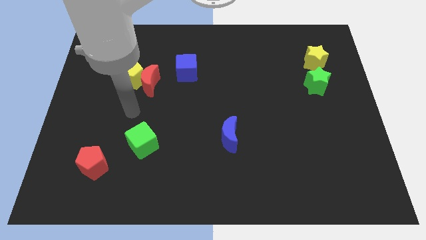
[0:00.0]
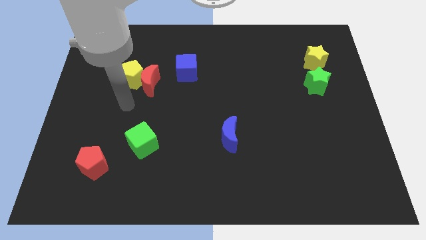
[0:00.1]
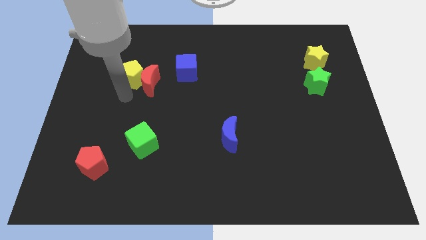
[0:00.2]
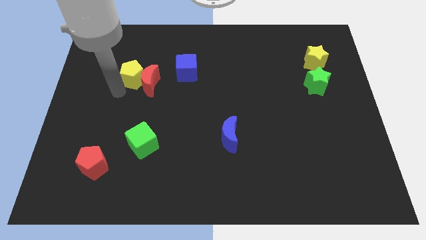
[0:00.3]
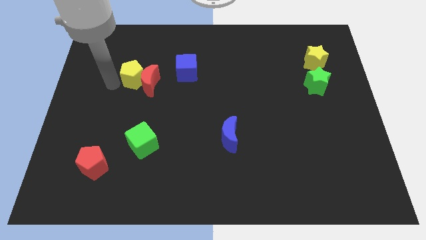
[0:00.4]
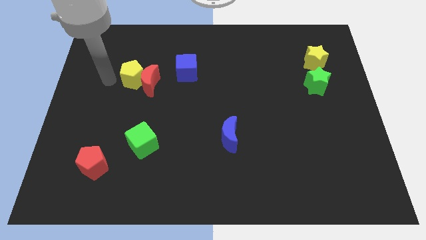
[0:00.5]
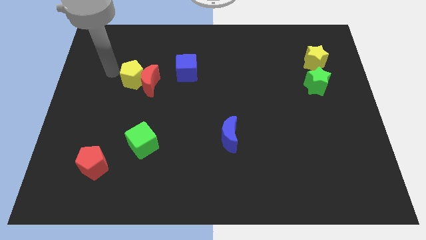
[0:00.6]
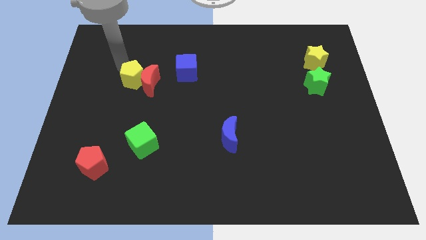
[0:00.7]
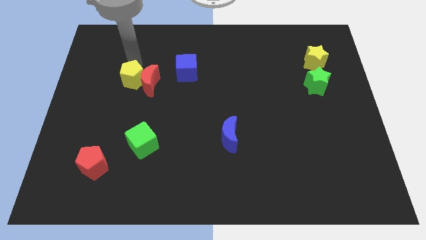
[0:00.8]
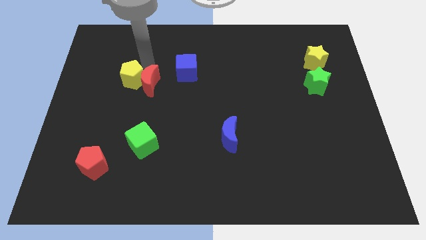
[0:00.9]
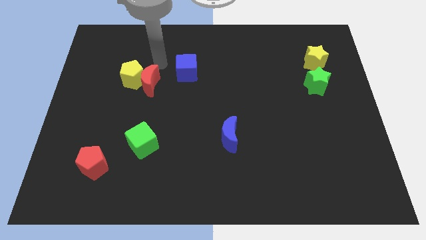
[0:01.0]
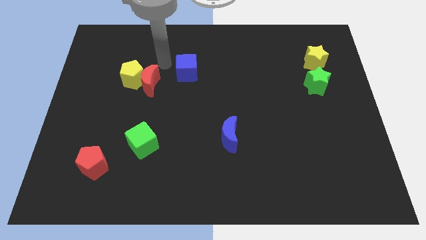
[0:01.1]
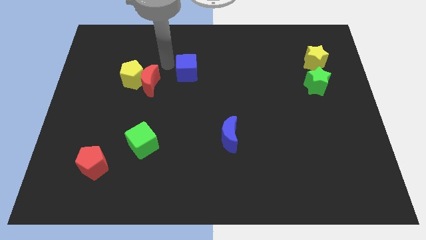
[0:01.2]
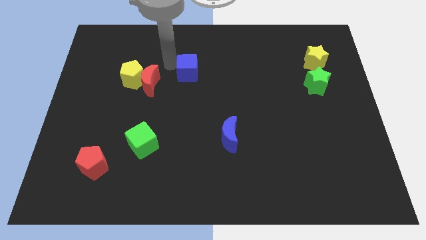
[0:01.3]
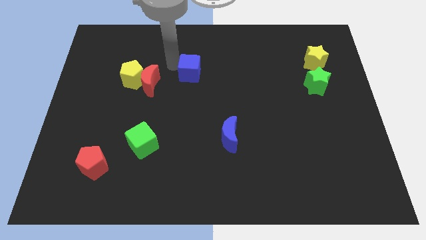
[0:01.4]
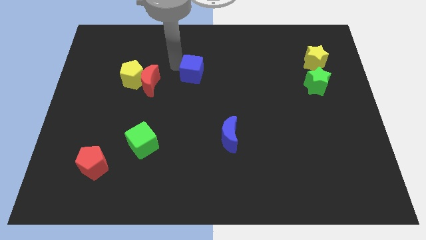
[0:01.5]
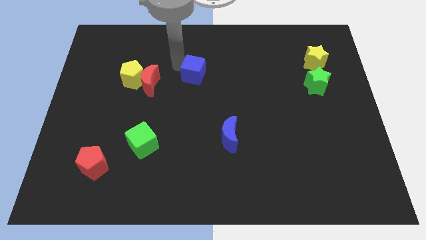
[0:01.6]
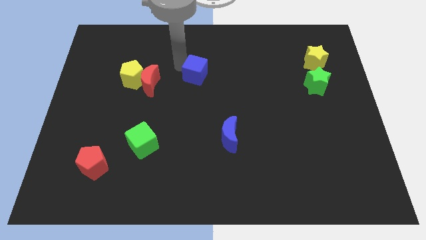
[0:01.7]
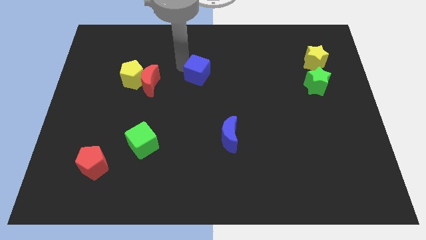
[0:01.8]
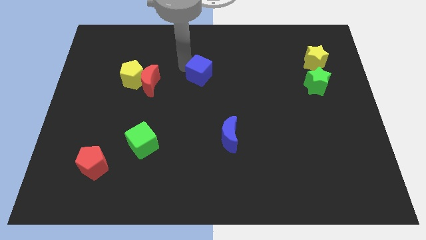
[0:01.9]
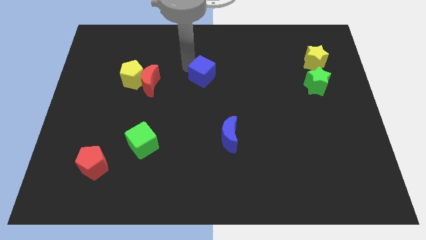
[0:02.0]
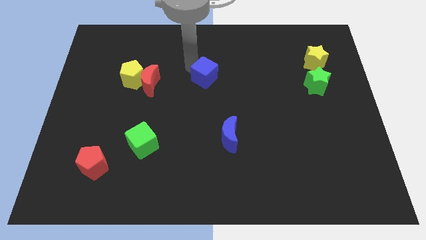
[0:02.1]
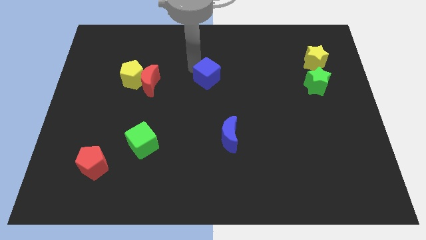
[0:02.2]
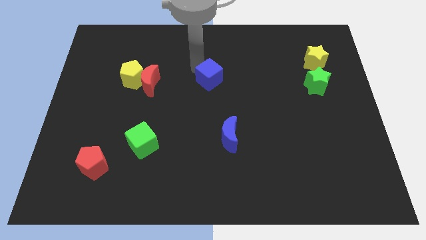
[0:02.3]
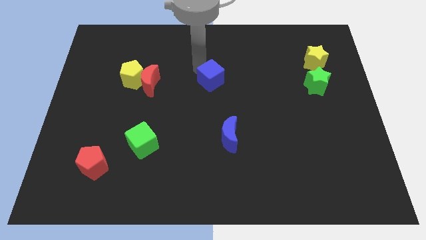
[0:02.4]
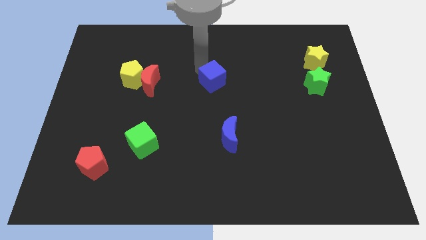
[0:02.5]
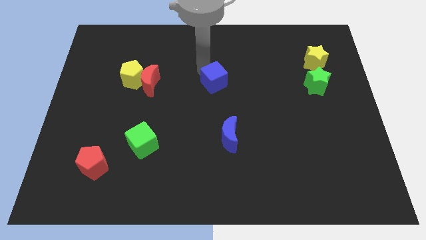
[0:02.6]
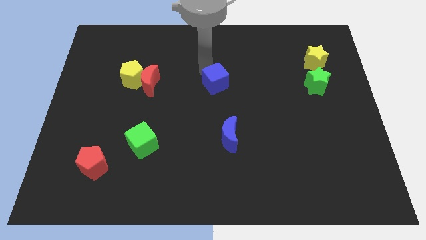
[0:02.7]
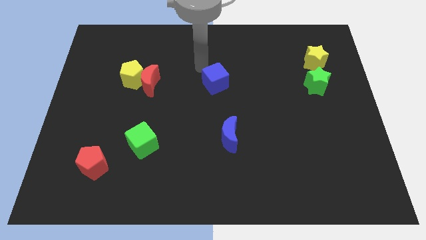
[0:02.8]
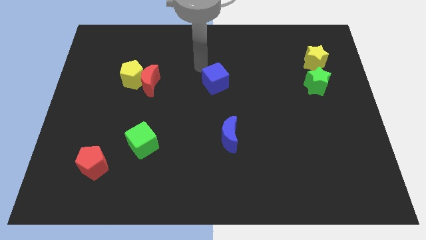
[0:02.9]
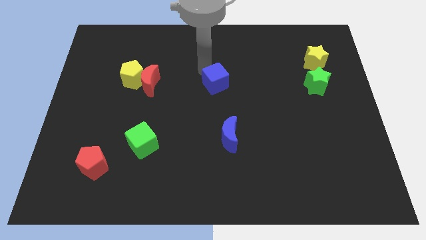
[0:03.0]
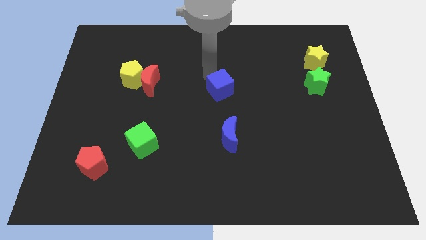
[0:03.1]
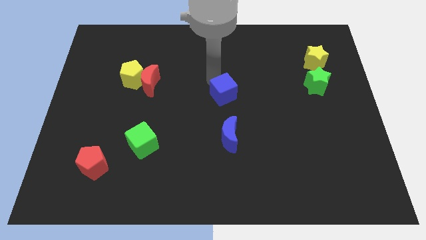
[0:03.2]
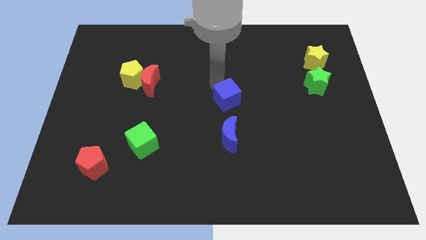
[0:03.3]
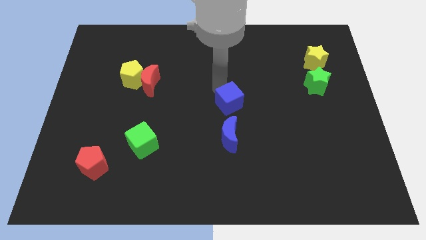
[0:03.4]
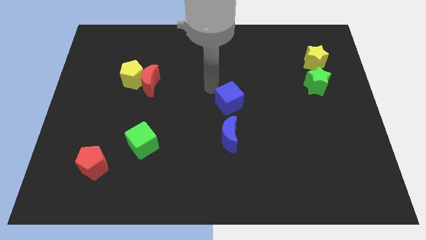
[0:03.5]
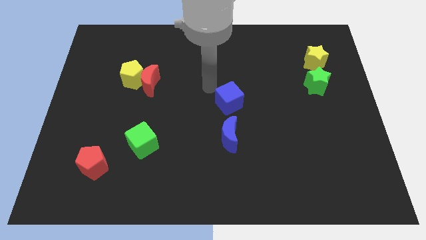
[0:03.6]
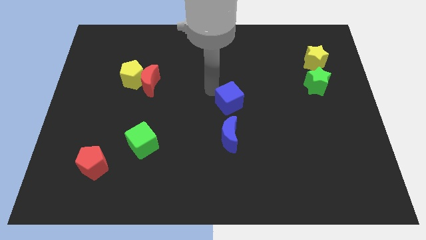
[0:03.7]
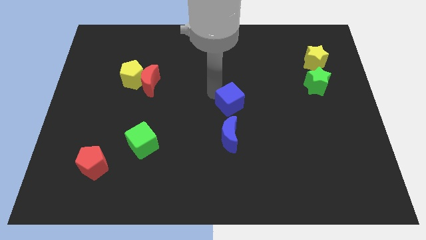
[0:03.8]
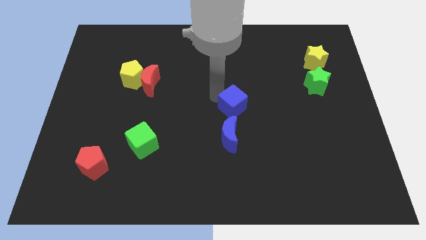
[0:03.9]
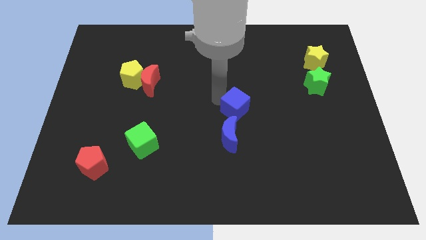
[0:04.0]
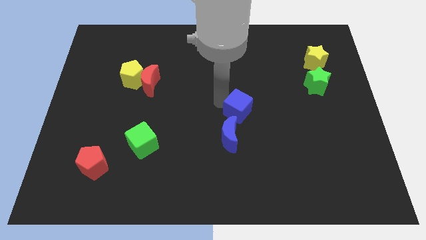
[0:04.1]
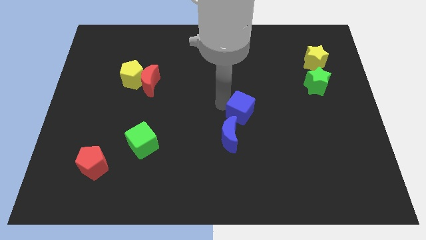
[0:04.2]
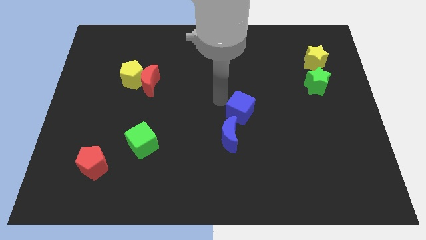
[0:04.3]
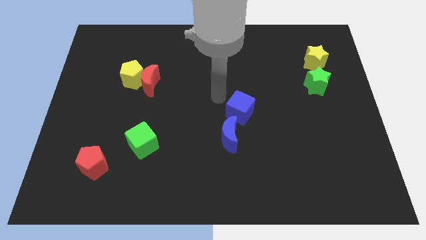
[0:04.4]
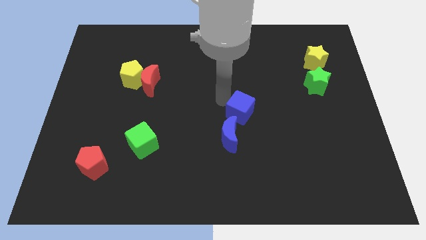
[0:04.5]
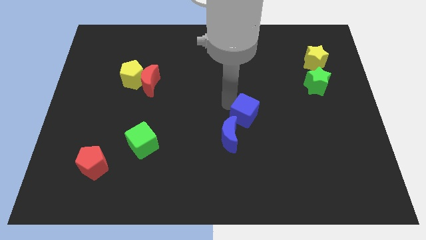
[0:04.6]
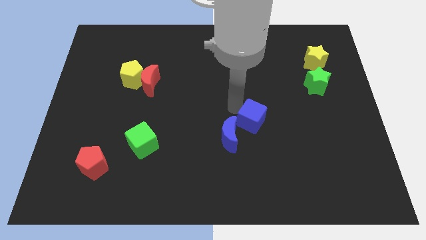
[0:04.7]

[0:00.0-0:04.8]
slide the blue cube down and to the right diagonally

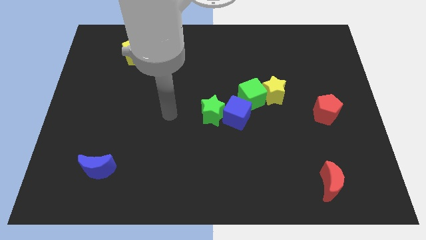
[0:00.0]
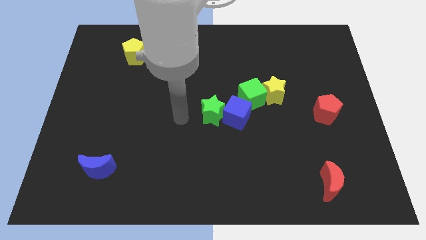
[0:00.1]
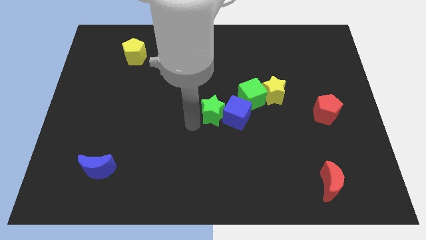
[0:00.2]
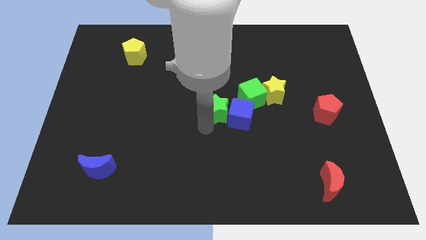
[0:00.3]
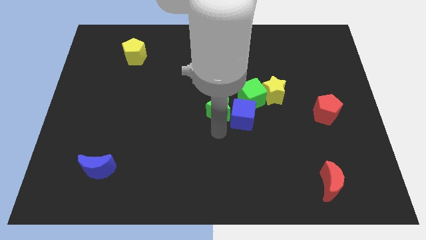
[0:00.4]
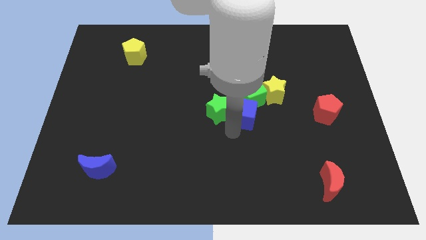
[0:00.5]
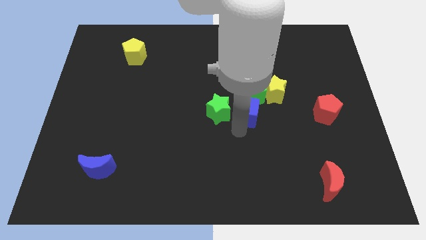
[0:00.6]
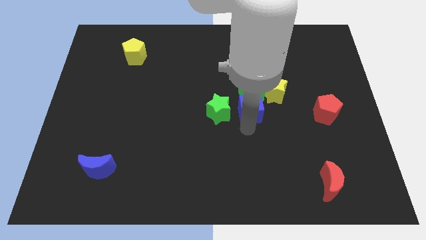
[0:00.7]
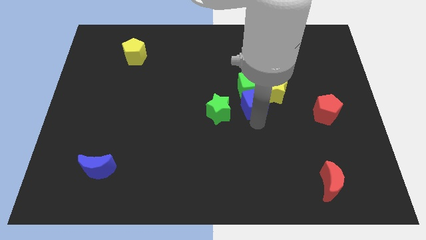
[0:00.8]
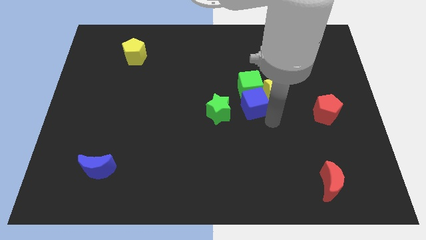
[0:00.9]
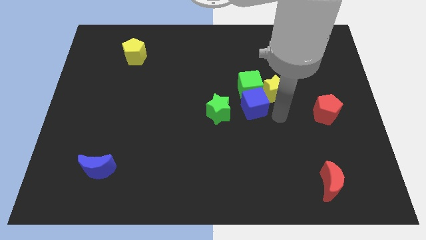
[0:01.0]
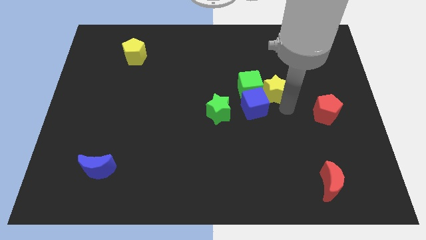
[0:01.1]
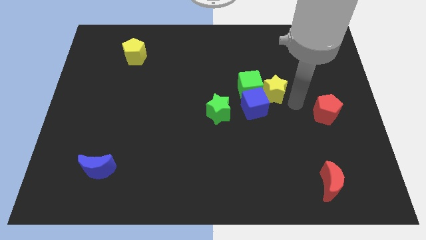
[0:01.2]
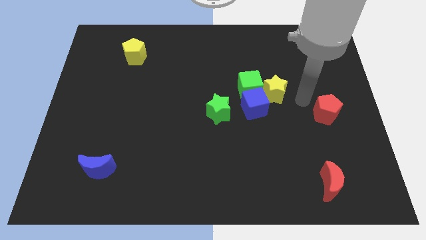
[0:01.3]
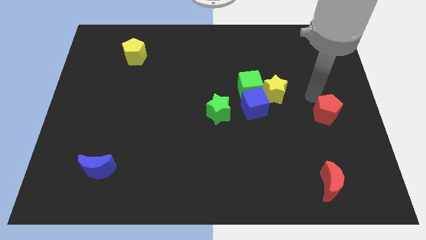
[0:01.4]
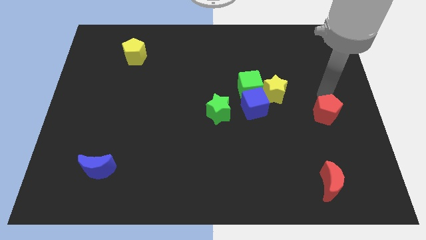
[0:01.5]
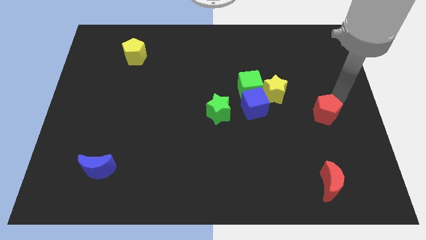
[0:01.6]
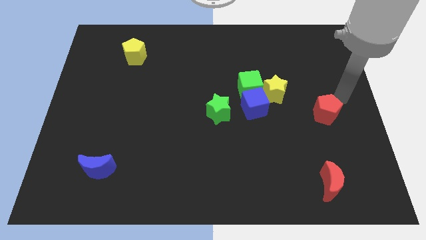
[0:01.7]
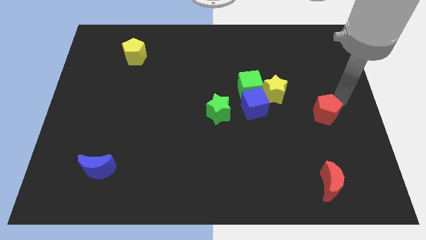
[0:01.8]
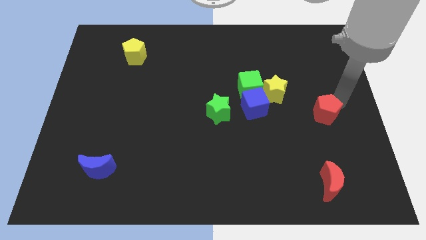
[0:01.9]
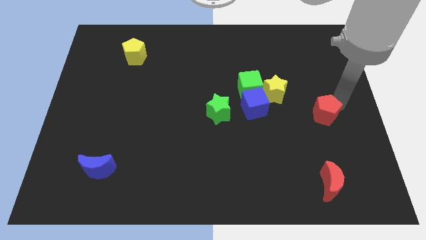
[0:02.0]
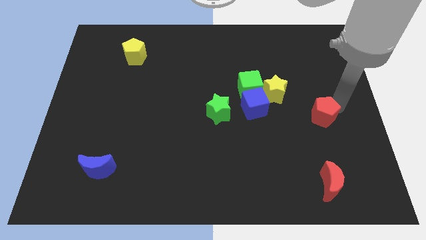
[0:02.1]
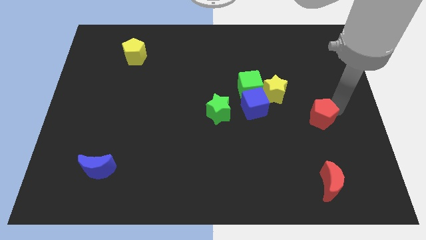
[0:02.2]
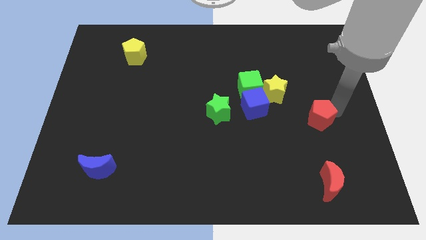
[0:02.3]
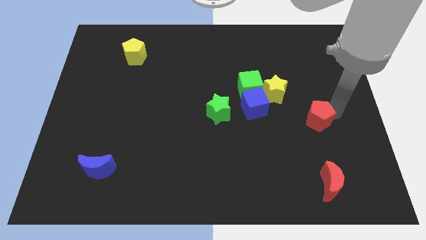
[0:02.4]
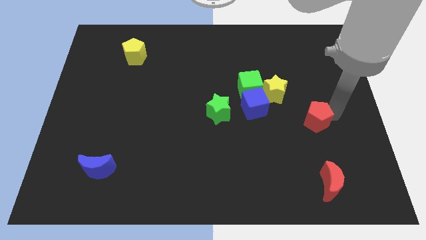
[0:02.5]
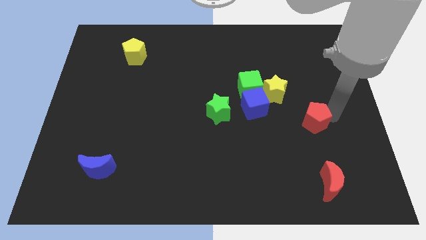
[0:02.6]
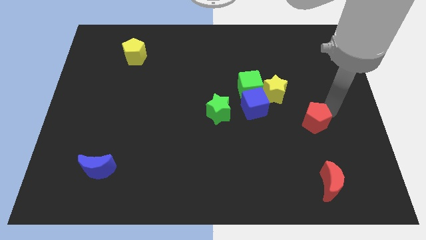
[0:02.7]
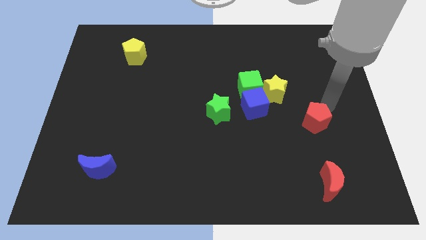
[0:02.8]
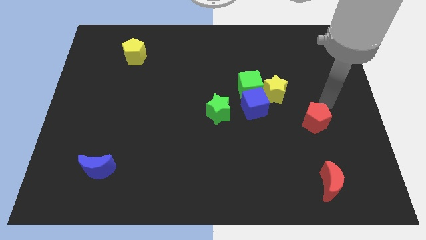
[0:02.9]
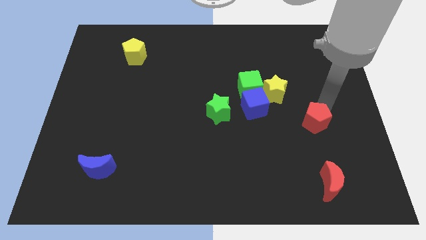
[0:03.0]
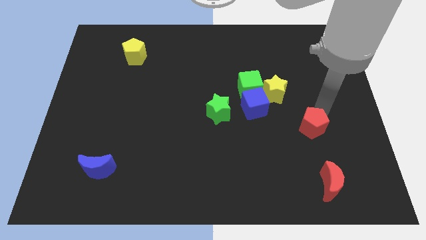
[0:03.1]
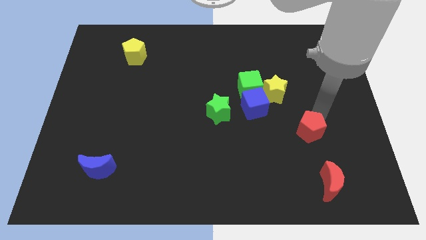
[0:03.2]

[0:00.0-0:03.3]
slightly slide the red pentagon down and to the left diagonally
